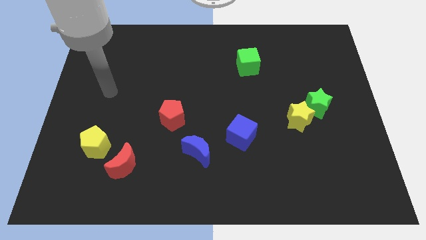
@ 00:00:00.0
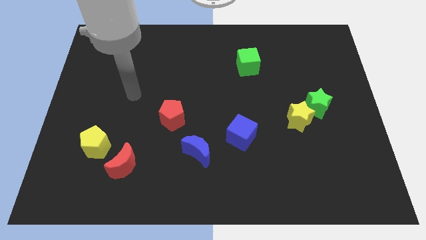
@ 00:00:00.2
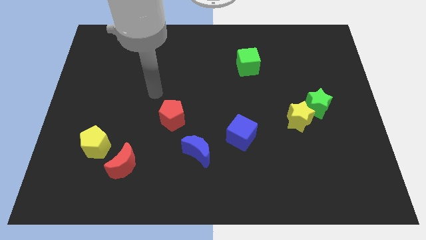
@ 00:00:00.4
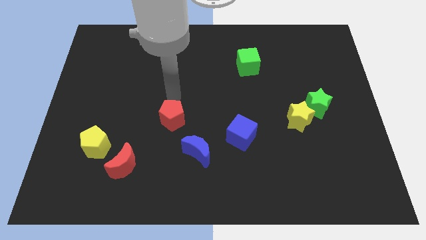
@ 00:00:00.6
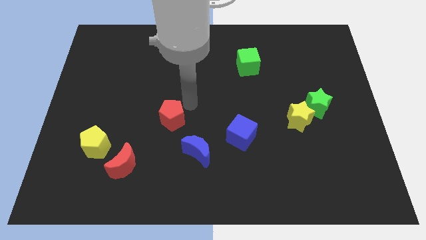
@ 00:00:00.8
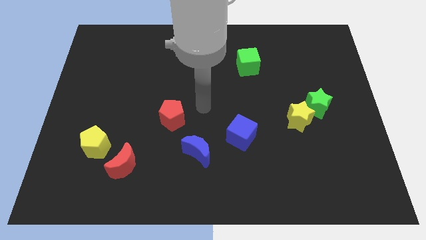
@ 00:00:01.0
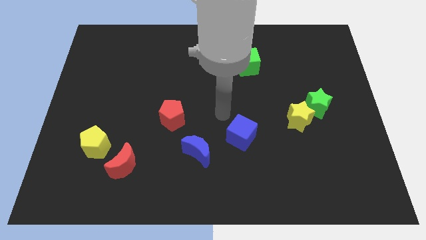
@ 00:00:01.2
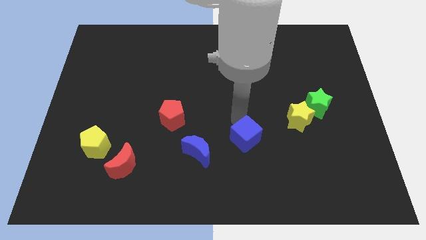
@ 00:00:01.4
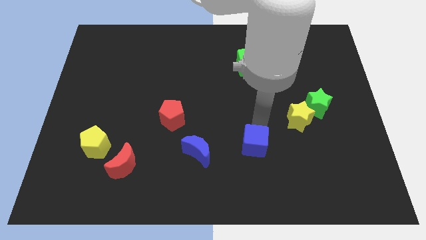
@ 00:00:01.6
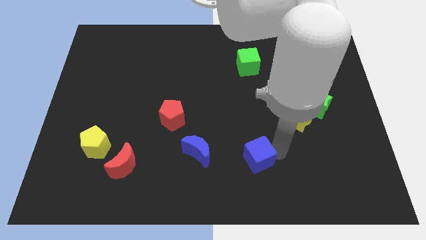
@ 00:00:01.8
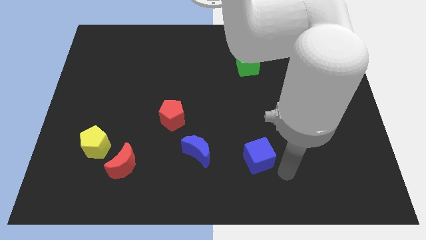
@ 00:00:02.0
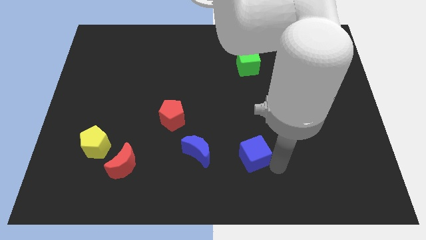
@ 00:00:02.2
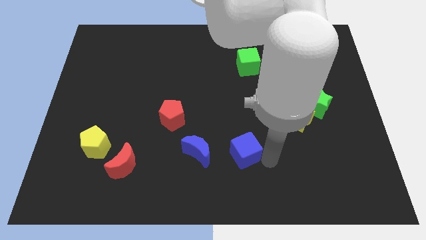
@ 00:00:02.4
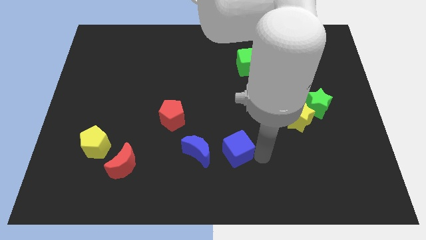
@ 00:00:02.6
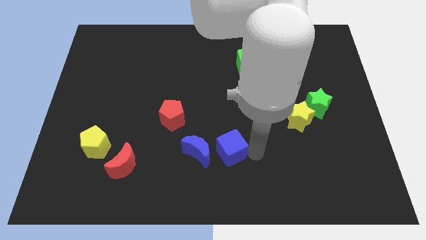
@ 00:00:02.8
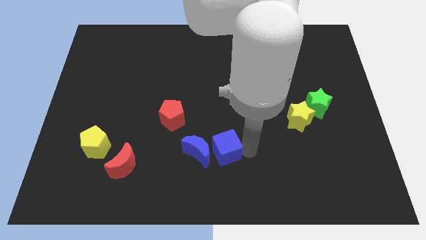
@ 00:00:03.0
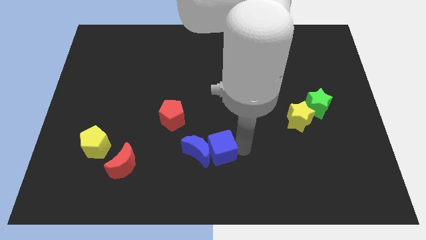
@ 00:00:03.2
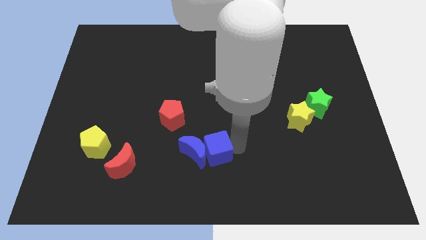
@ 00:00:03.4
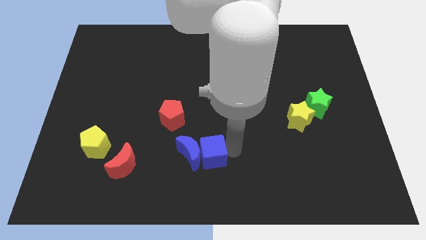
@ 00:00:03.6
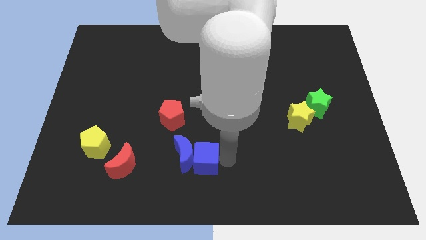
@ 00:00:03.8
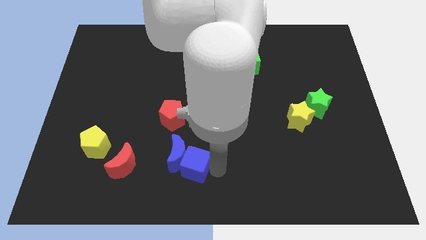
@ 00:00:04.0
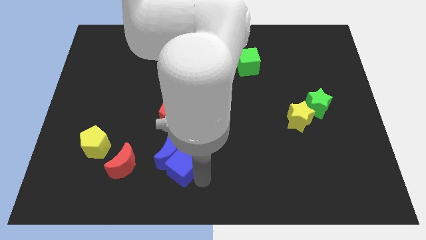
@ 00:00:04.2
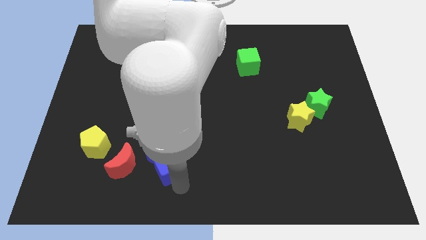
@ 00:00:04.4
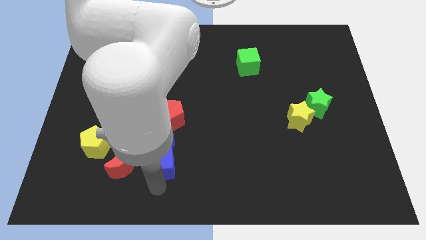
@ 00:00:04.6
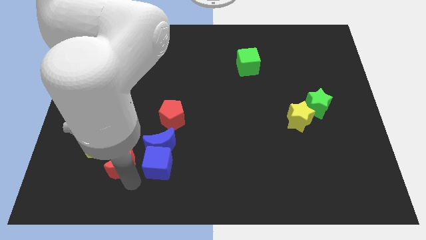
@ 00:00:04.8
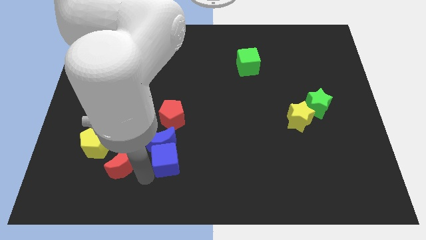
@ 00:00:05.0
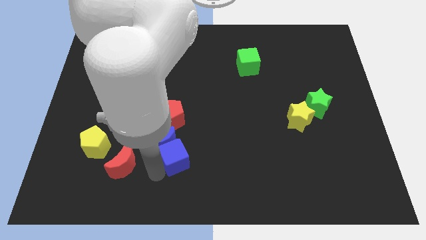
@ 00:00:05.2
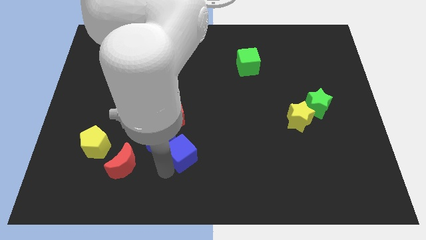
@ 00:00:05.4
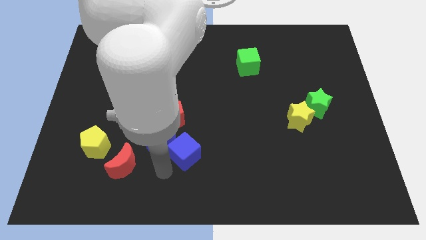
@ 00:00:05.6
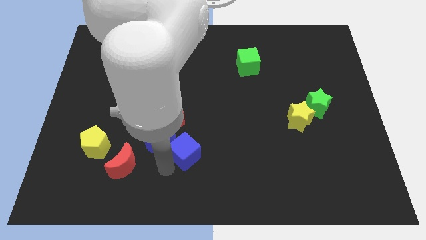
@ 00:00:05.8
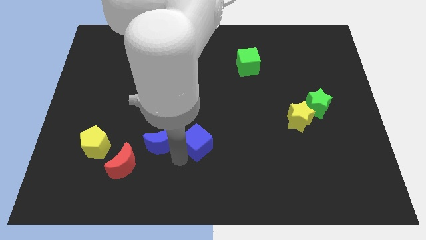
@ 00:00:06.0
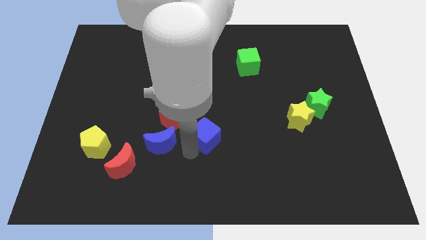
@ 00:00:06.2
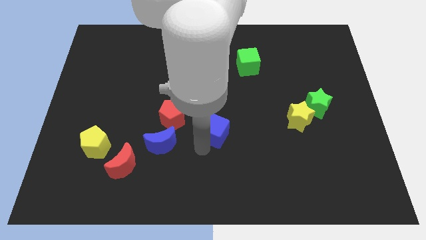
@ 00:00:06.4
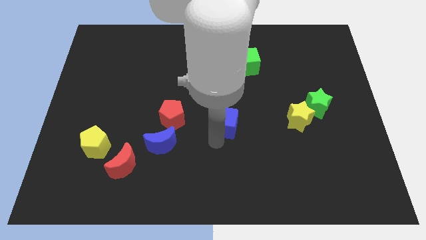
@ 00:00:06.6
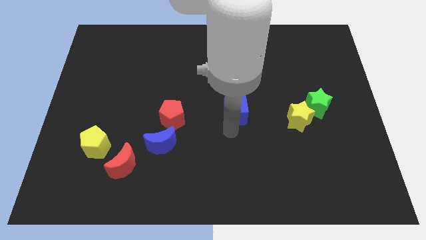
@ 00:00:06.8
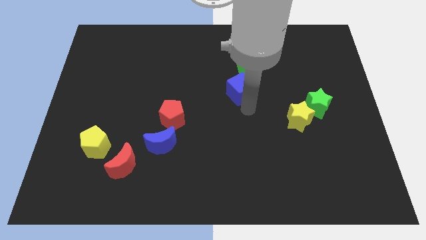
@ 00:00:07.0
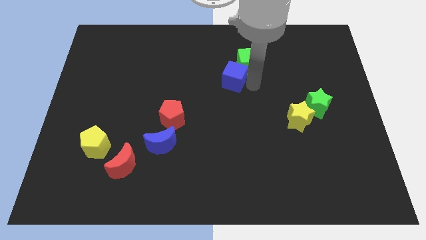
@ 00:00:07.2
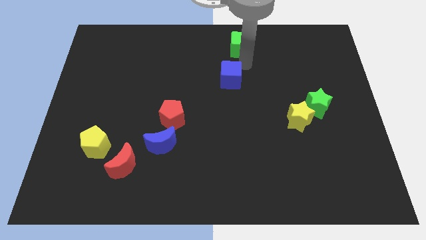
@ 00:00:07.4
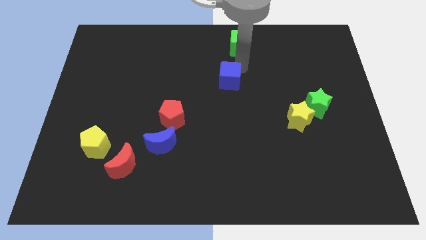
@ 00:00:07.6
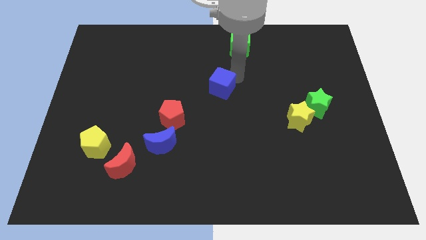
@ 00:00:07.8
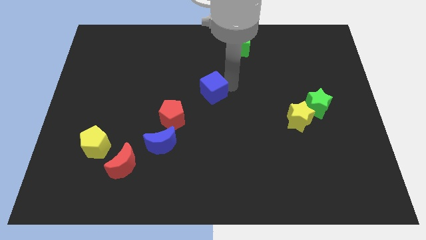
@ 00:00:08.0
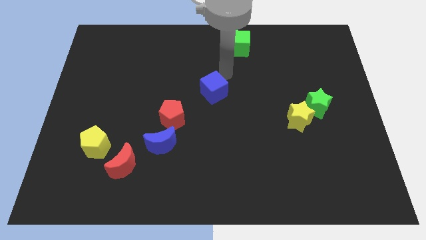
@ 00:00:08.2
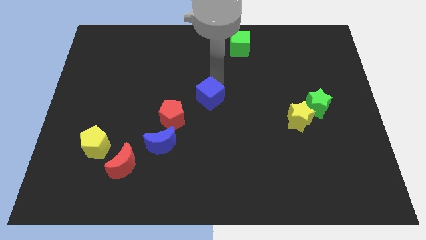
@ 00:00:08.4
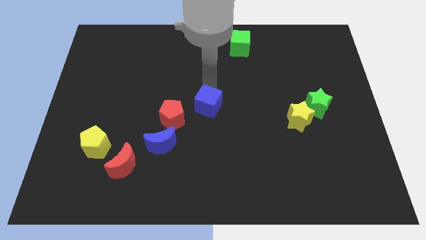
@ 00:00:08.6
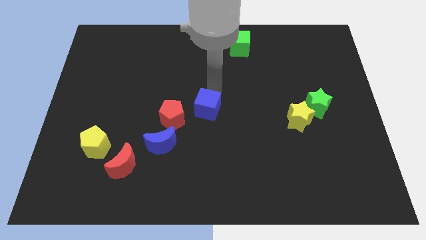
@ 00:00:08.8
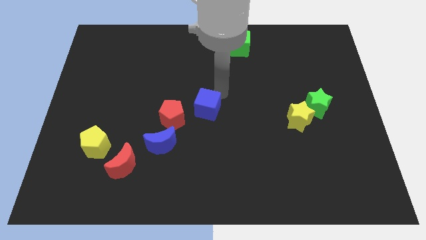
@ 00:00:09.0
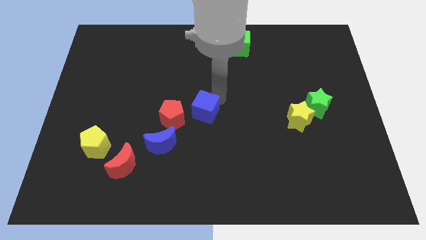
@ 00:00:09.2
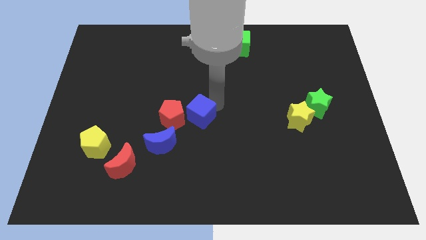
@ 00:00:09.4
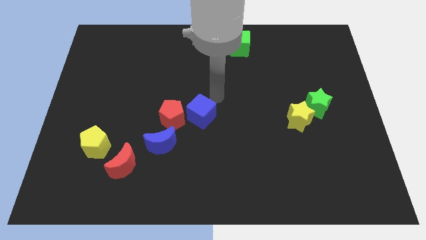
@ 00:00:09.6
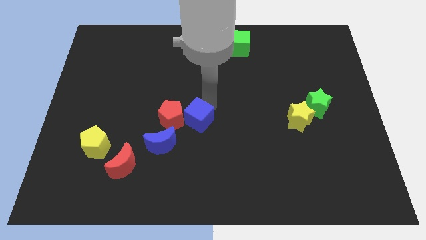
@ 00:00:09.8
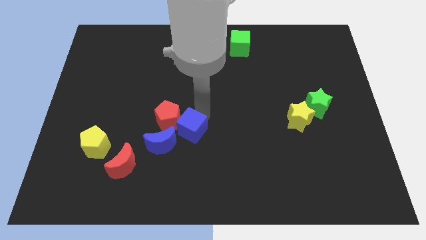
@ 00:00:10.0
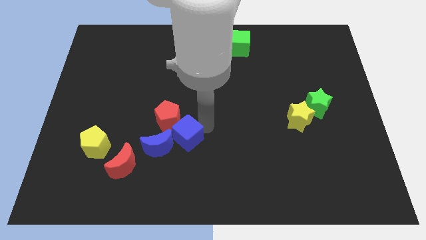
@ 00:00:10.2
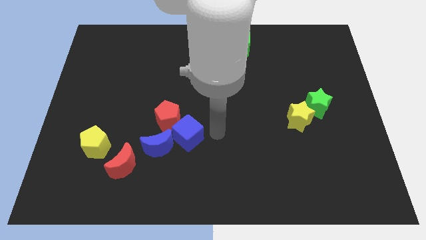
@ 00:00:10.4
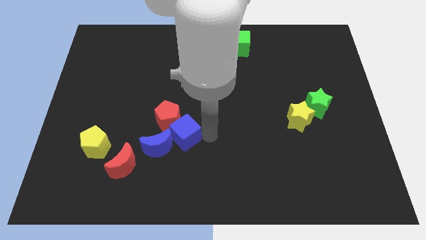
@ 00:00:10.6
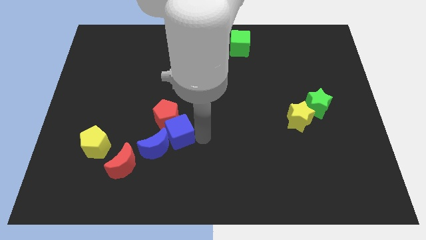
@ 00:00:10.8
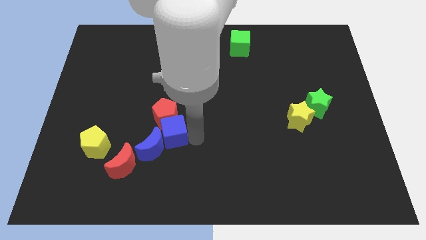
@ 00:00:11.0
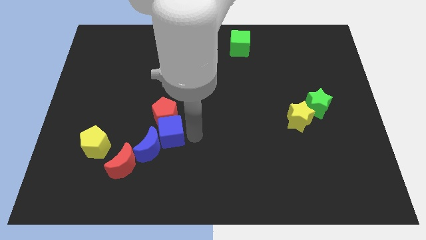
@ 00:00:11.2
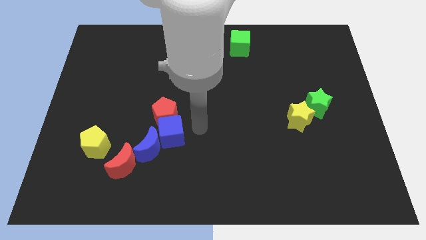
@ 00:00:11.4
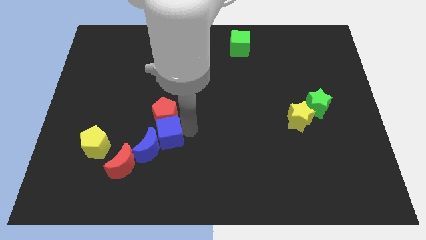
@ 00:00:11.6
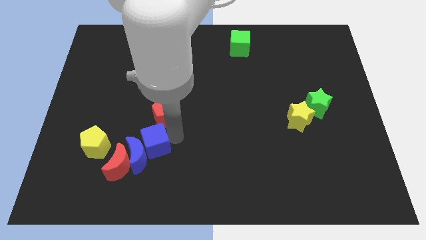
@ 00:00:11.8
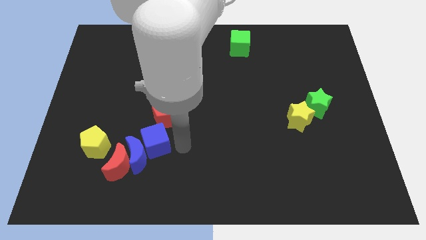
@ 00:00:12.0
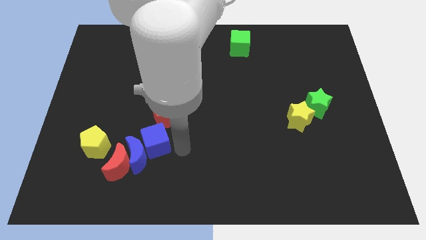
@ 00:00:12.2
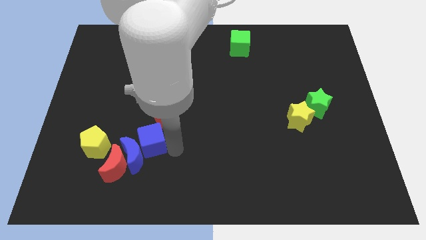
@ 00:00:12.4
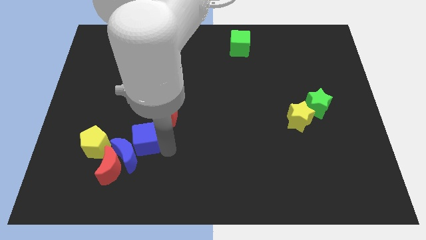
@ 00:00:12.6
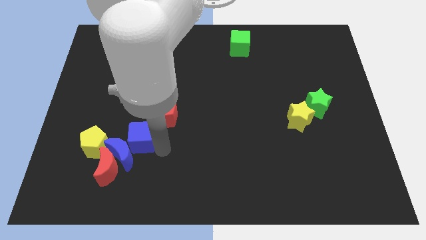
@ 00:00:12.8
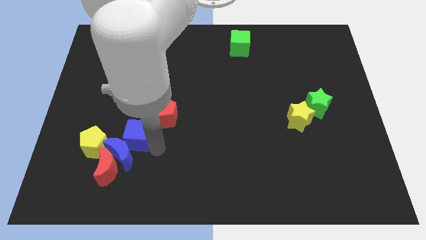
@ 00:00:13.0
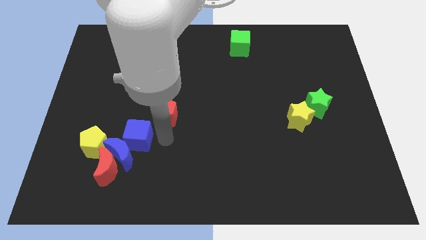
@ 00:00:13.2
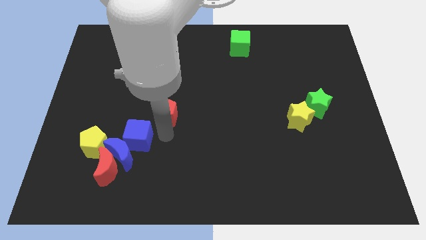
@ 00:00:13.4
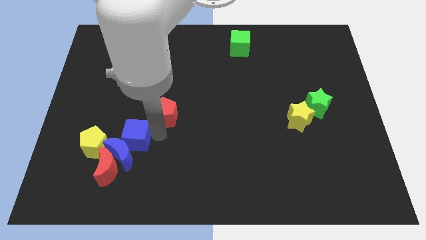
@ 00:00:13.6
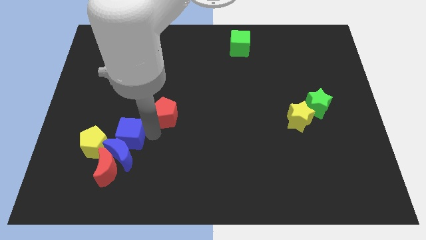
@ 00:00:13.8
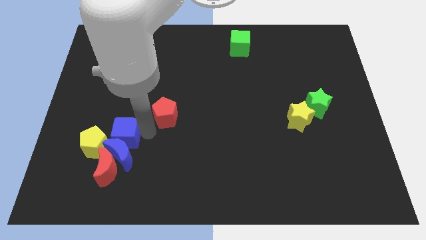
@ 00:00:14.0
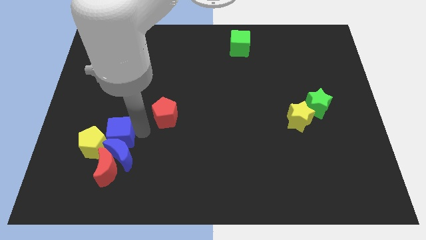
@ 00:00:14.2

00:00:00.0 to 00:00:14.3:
slide the blue cube next to the yellow pentagon
